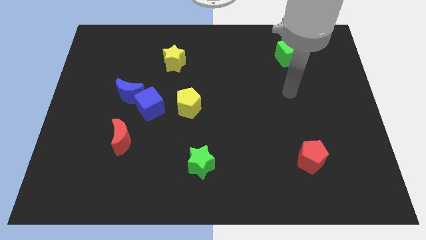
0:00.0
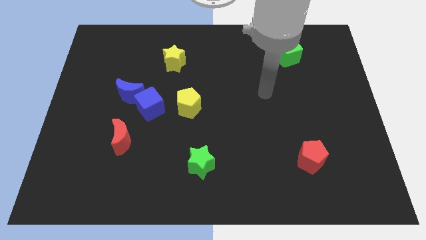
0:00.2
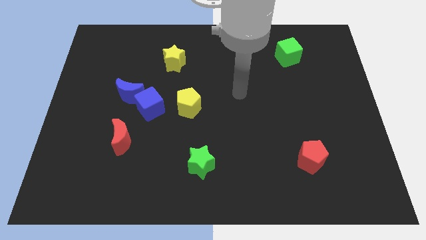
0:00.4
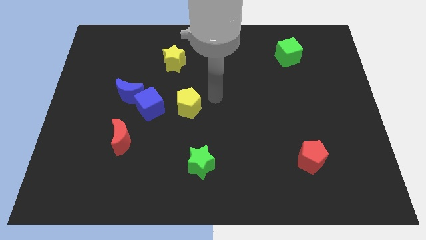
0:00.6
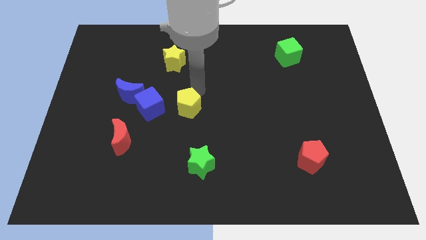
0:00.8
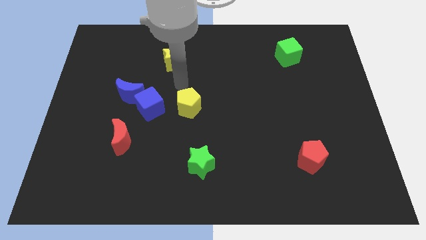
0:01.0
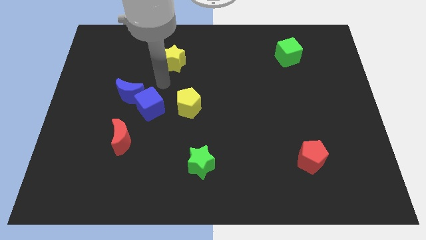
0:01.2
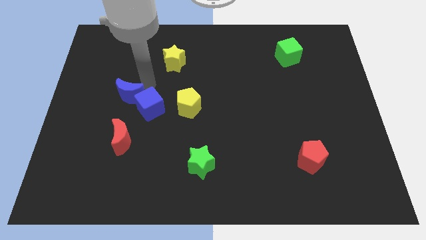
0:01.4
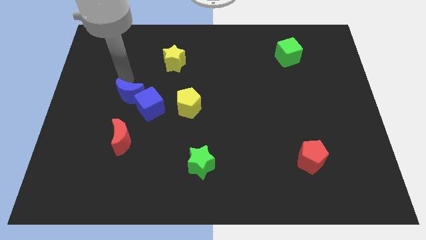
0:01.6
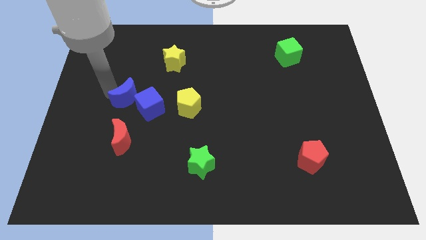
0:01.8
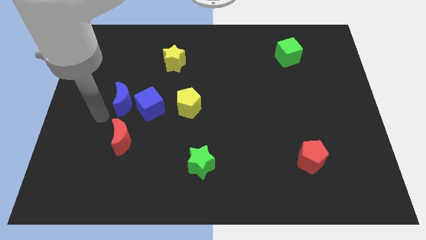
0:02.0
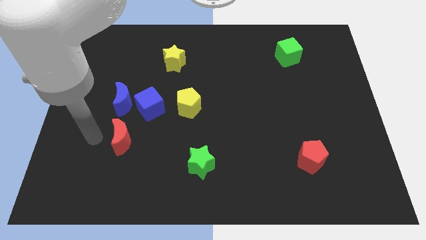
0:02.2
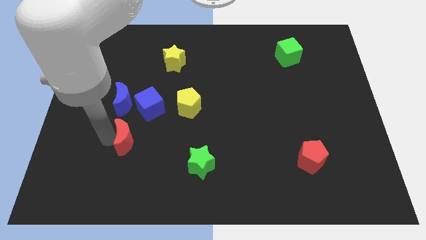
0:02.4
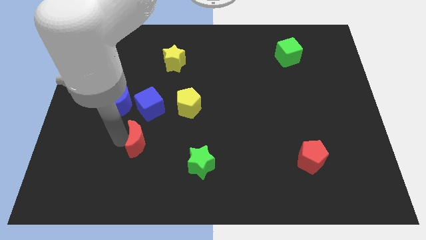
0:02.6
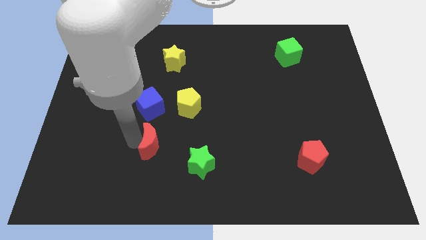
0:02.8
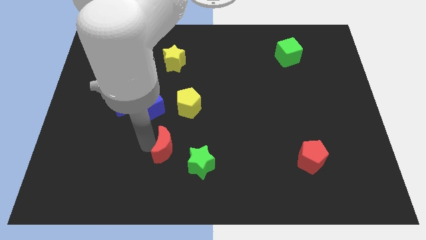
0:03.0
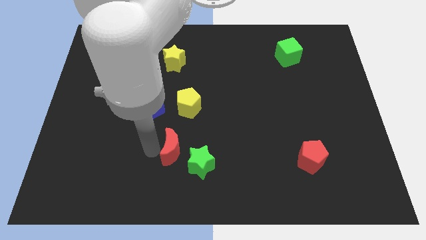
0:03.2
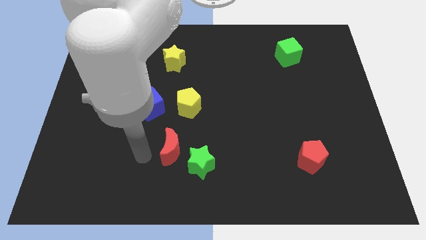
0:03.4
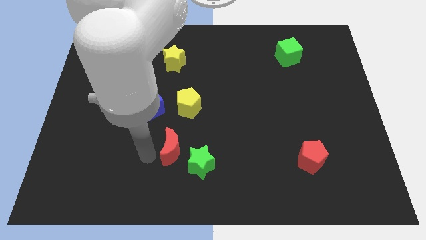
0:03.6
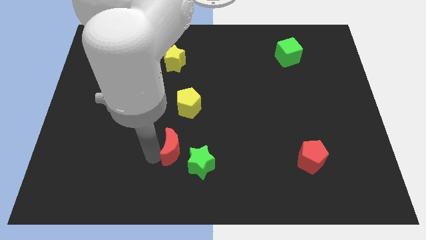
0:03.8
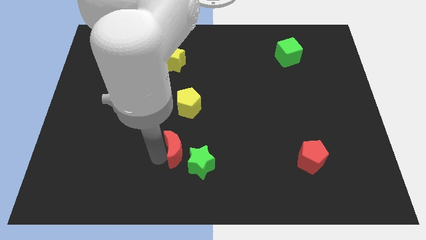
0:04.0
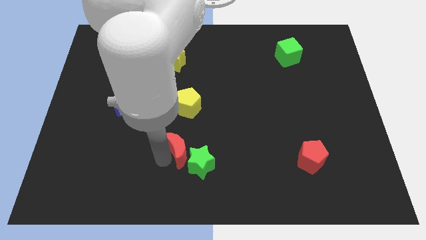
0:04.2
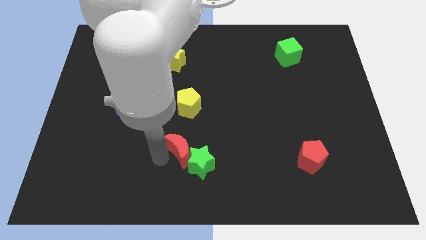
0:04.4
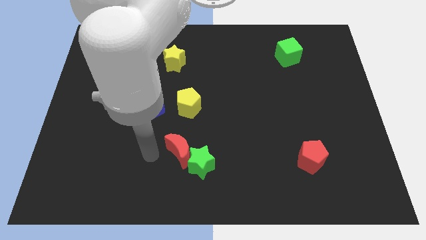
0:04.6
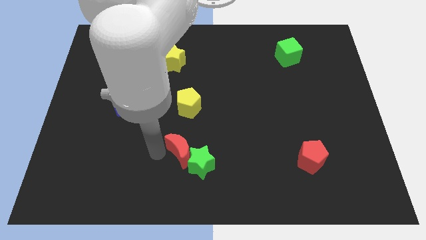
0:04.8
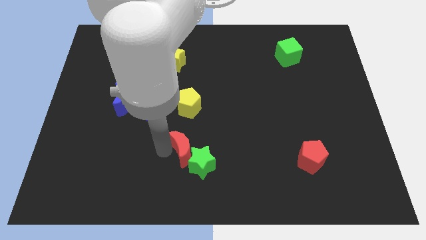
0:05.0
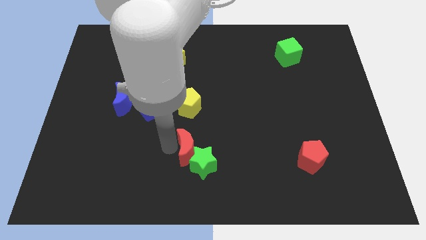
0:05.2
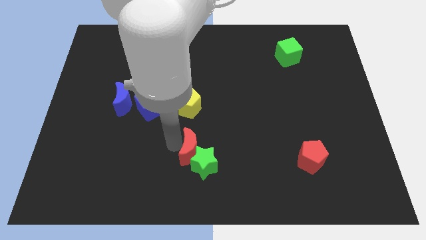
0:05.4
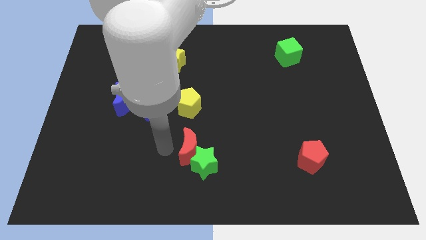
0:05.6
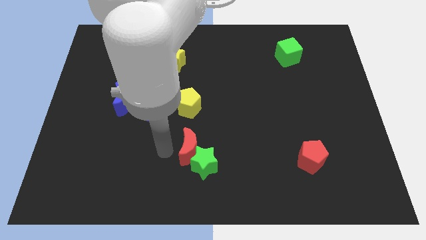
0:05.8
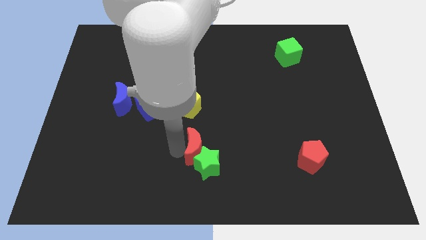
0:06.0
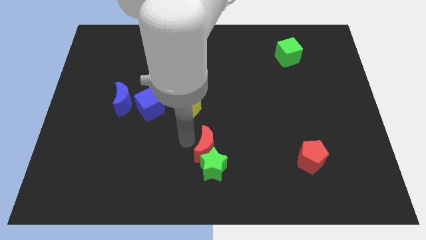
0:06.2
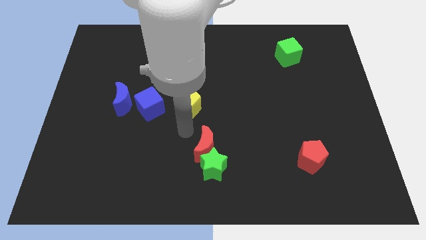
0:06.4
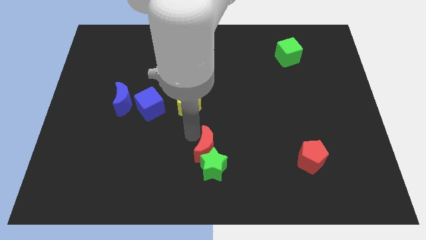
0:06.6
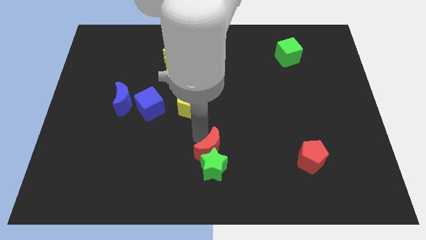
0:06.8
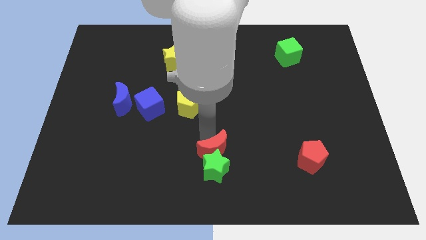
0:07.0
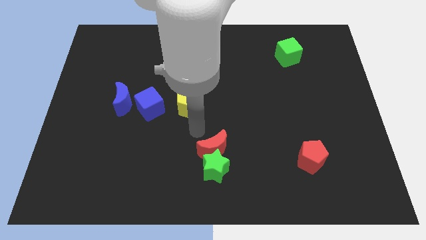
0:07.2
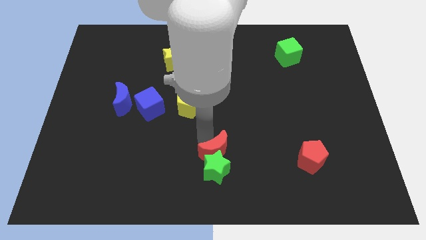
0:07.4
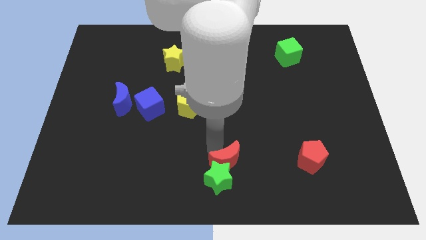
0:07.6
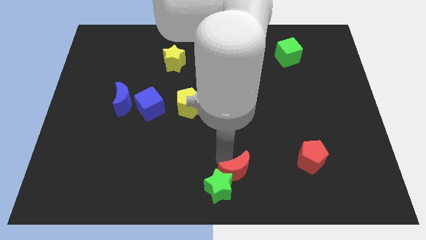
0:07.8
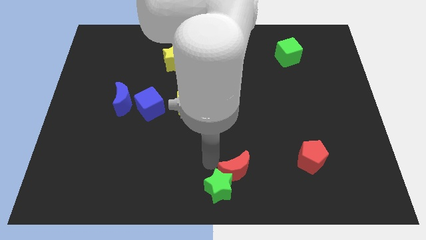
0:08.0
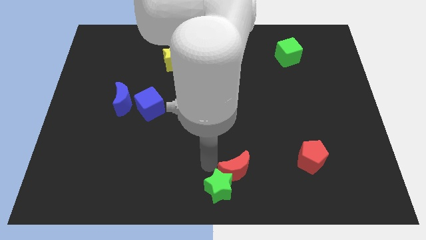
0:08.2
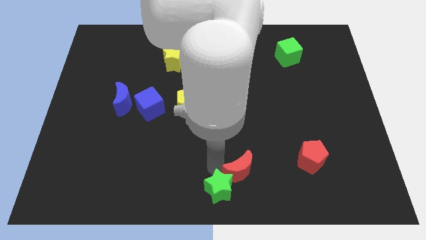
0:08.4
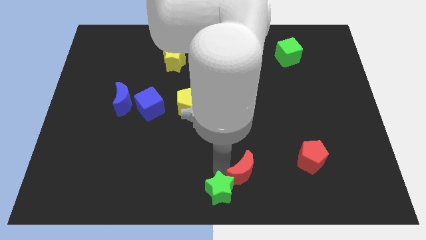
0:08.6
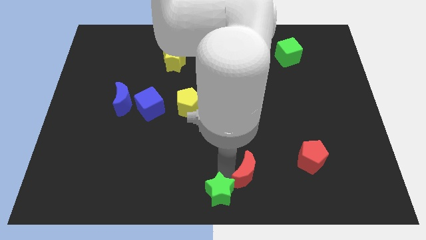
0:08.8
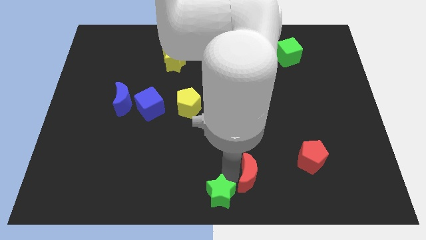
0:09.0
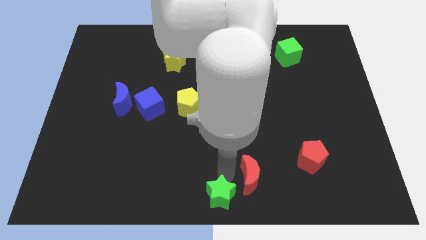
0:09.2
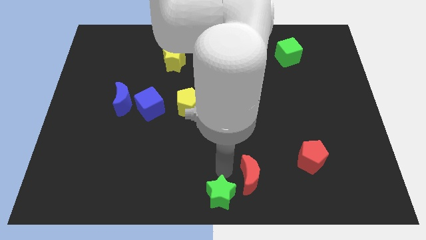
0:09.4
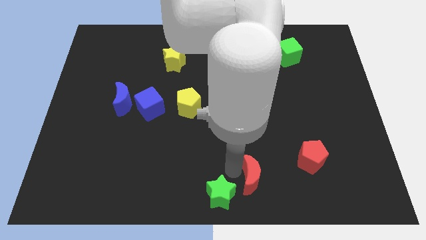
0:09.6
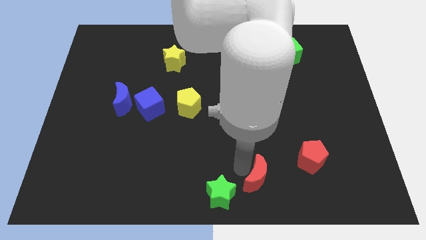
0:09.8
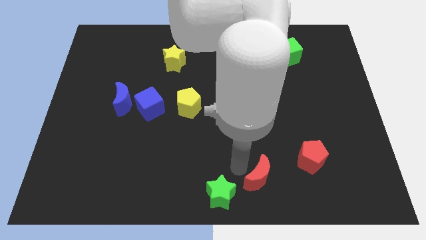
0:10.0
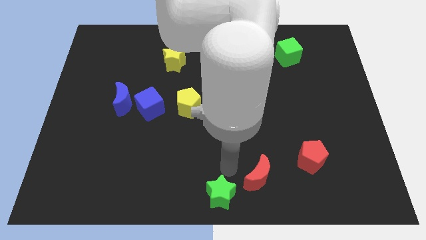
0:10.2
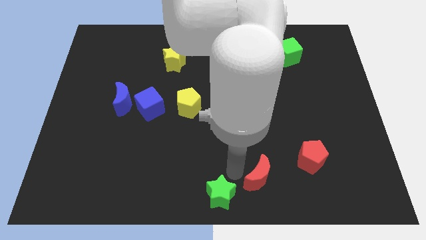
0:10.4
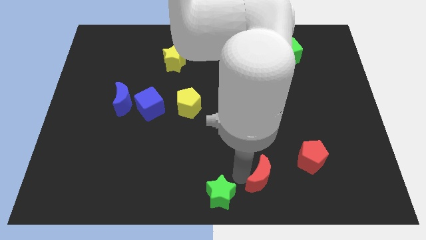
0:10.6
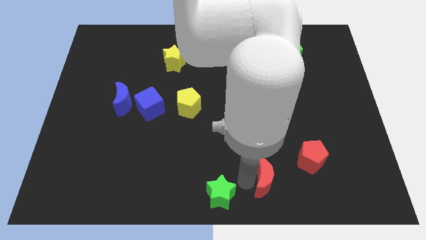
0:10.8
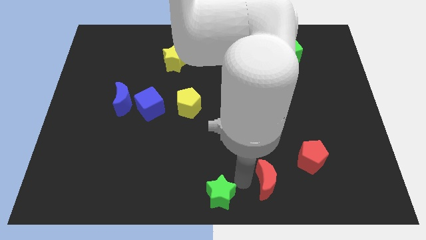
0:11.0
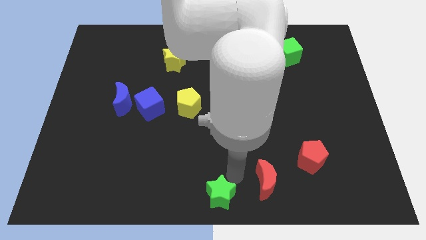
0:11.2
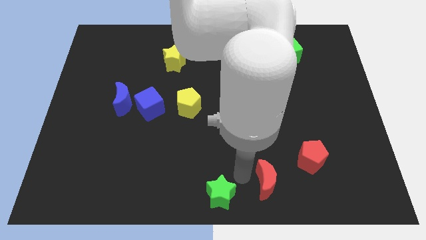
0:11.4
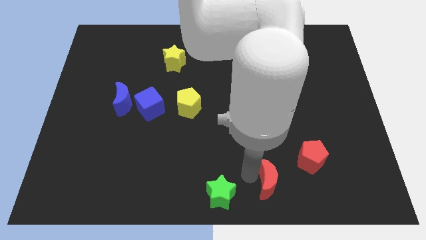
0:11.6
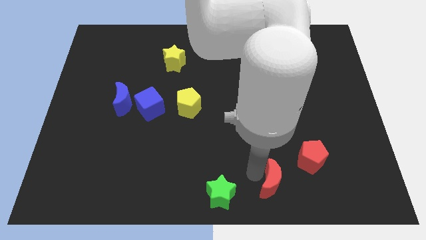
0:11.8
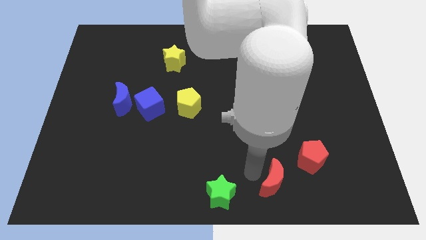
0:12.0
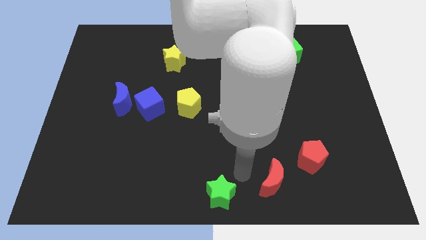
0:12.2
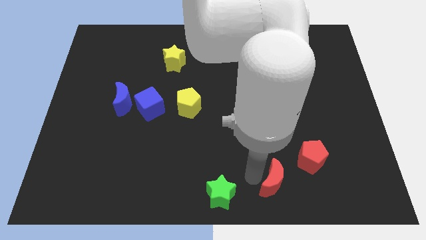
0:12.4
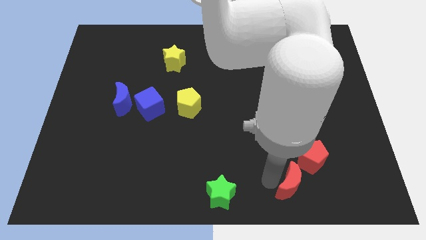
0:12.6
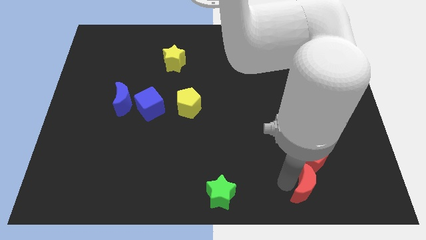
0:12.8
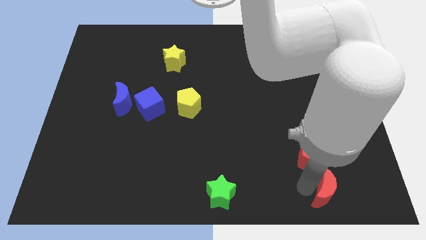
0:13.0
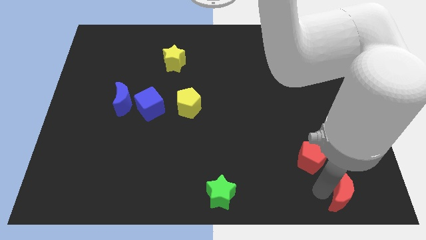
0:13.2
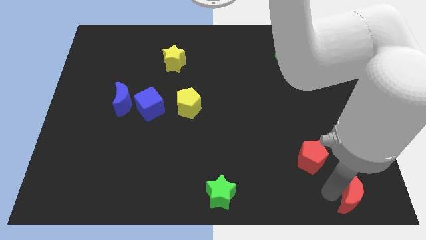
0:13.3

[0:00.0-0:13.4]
put the red moon to the bottom right of the board
